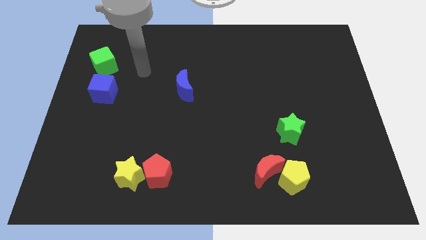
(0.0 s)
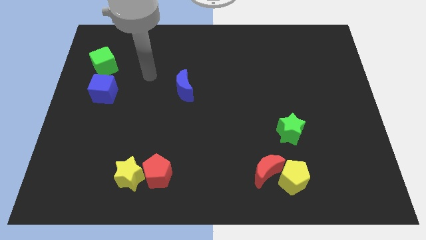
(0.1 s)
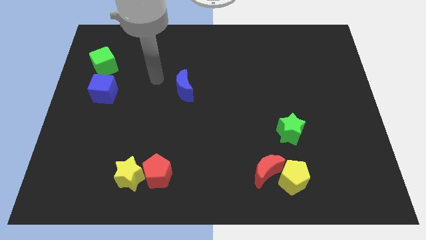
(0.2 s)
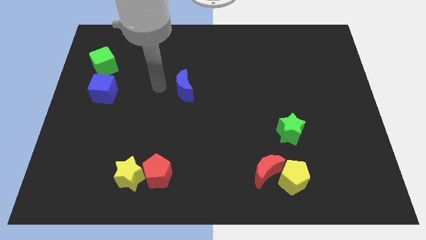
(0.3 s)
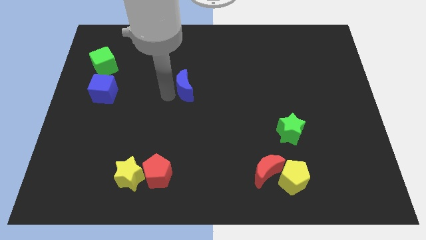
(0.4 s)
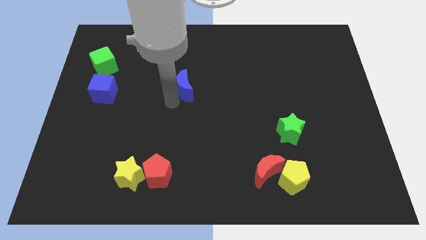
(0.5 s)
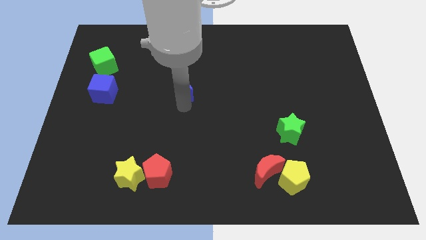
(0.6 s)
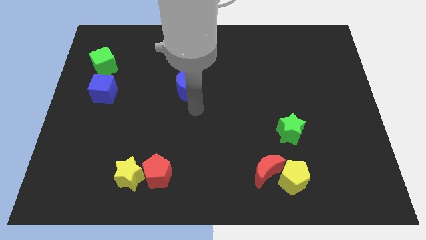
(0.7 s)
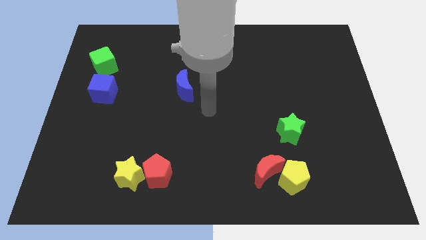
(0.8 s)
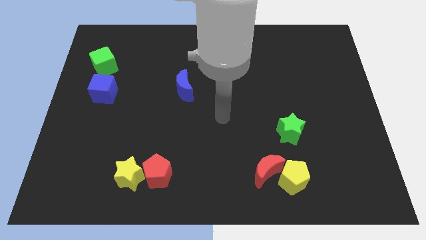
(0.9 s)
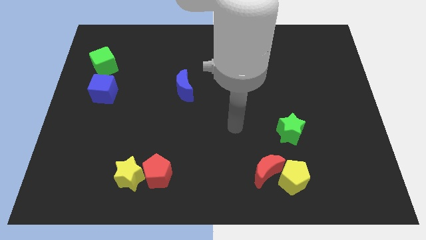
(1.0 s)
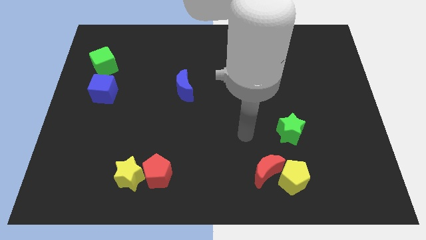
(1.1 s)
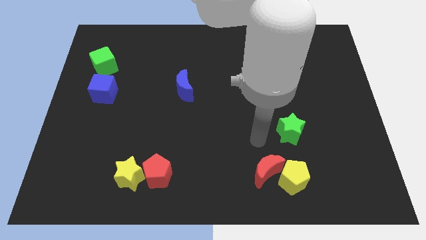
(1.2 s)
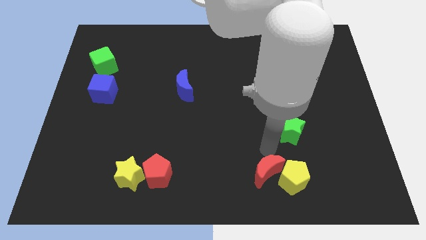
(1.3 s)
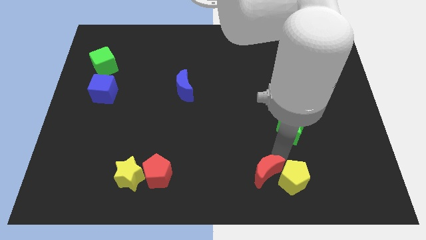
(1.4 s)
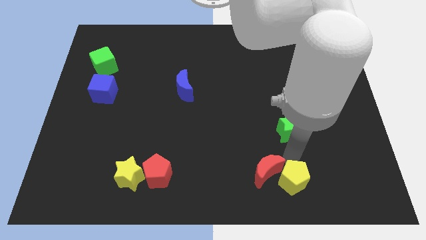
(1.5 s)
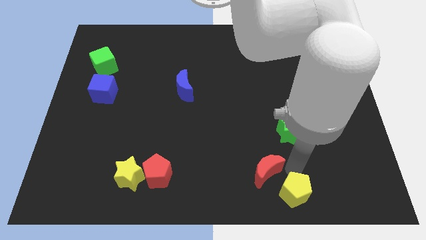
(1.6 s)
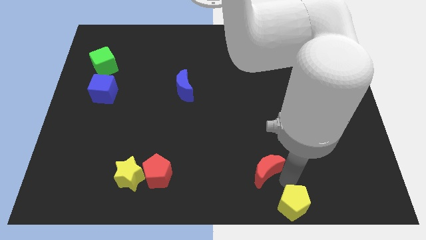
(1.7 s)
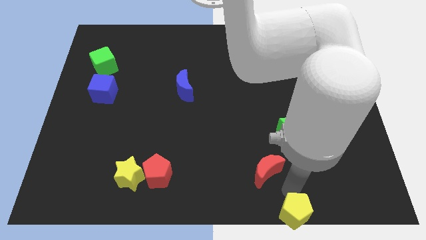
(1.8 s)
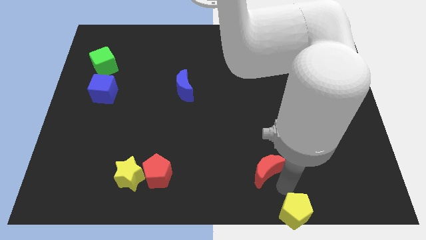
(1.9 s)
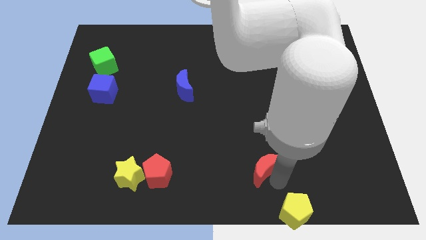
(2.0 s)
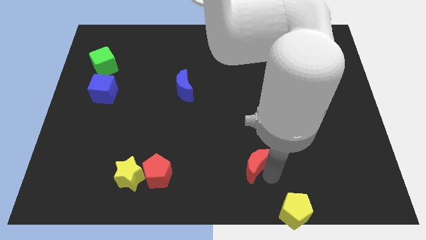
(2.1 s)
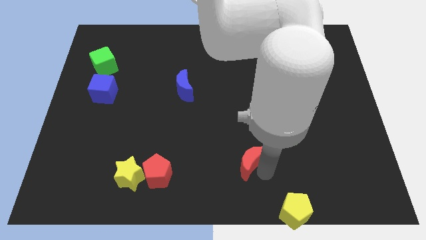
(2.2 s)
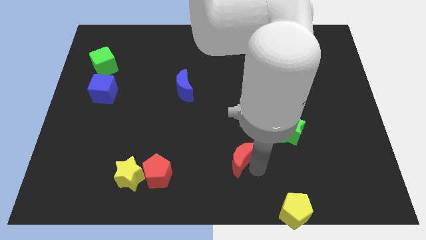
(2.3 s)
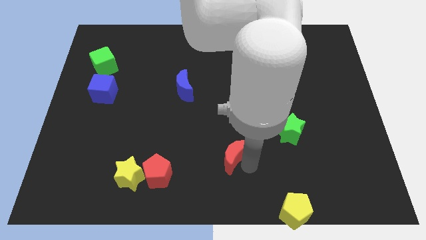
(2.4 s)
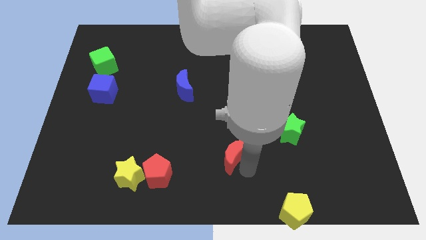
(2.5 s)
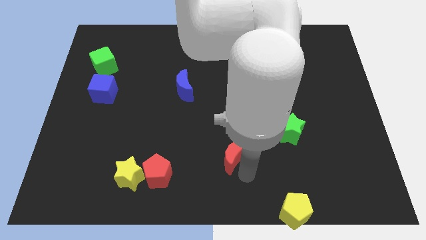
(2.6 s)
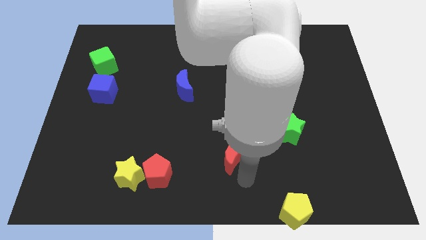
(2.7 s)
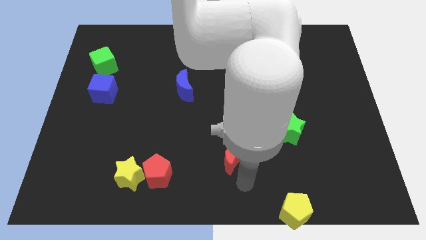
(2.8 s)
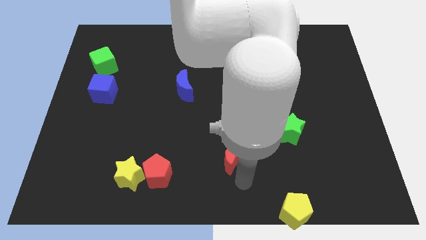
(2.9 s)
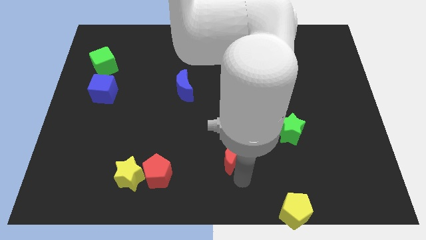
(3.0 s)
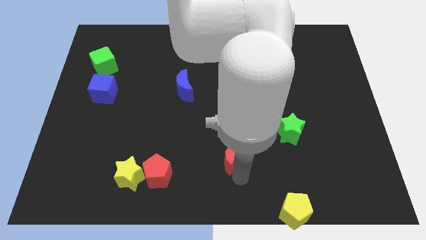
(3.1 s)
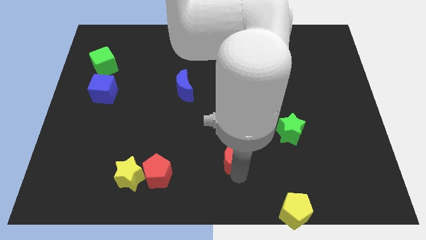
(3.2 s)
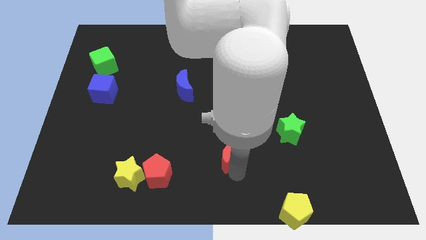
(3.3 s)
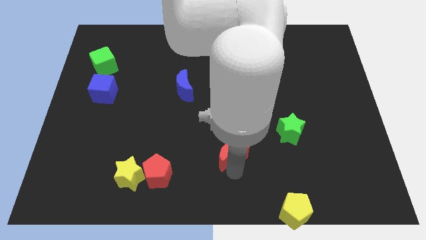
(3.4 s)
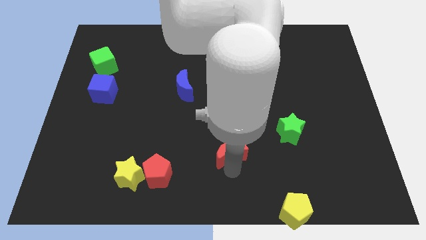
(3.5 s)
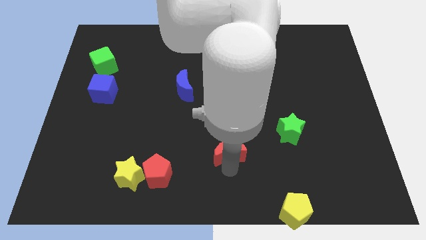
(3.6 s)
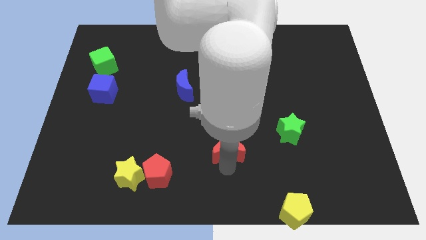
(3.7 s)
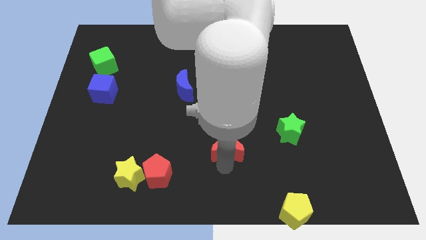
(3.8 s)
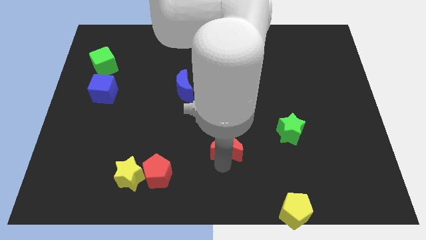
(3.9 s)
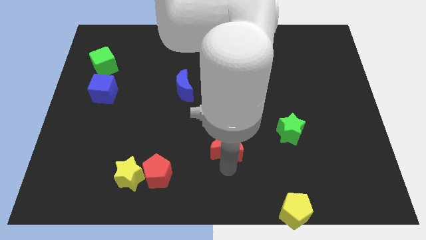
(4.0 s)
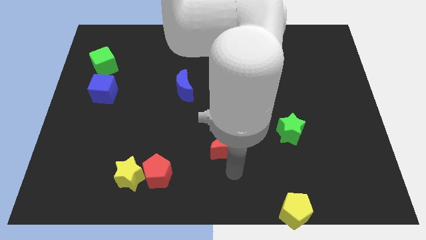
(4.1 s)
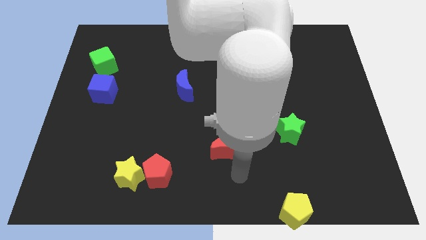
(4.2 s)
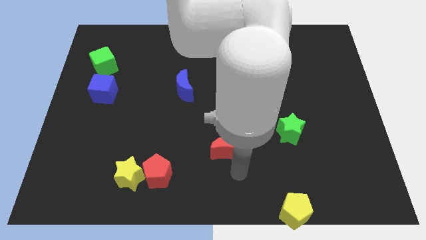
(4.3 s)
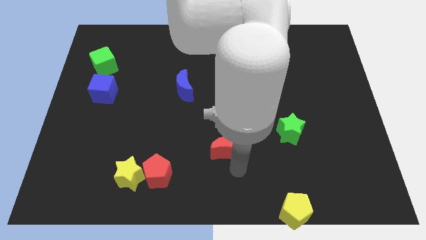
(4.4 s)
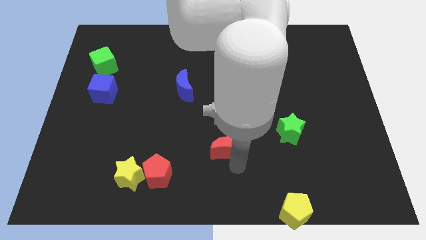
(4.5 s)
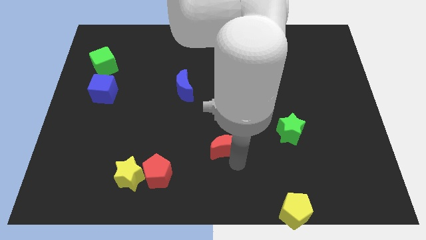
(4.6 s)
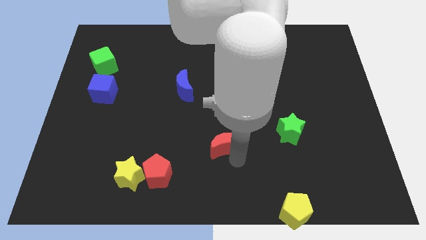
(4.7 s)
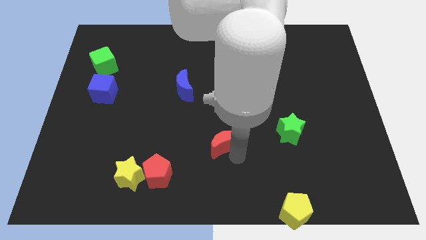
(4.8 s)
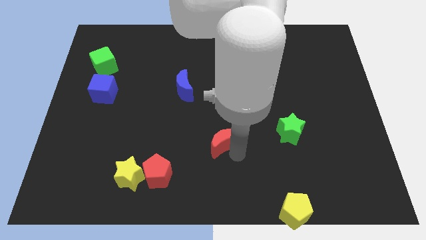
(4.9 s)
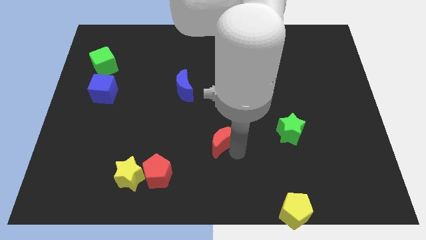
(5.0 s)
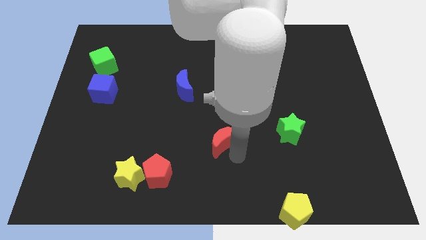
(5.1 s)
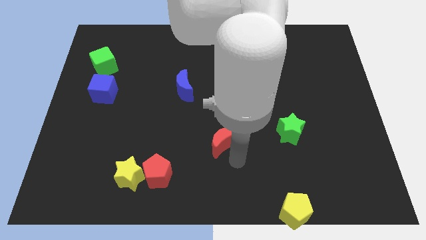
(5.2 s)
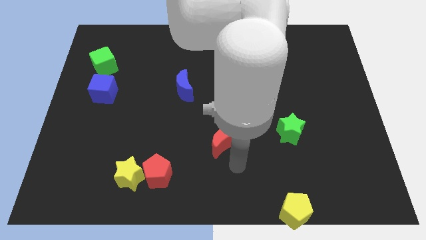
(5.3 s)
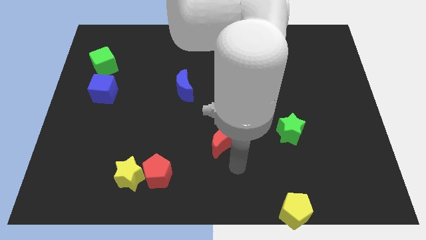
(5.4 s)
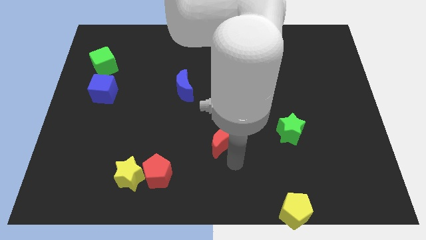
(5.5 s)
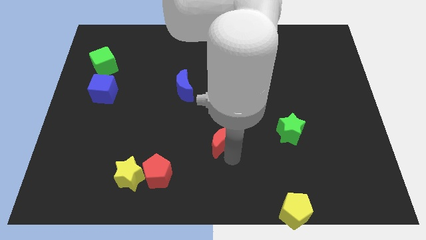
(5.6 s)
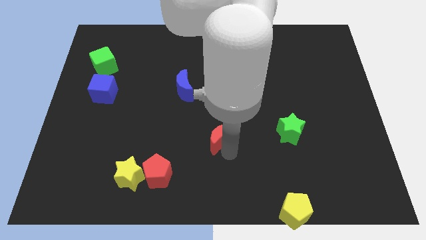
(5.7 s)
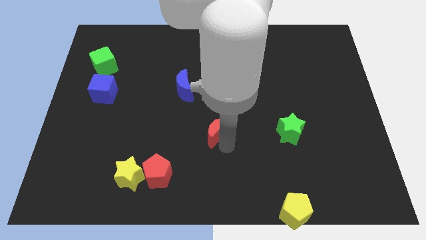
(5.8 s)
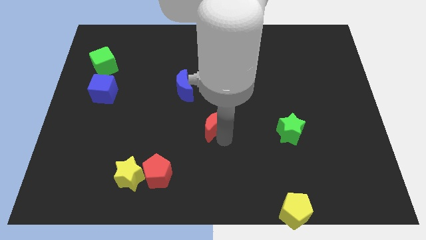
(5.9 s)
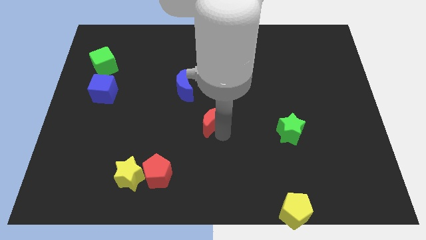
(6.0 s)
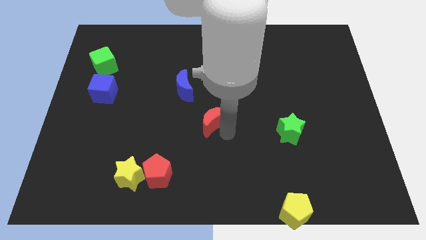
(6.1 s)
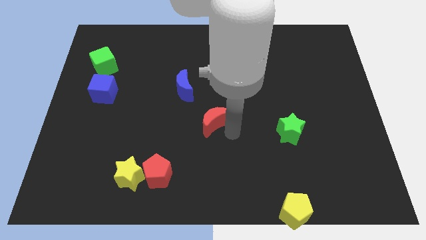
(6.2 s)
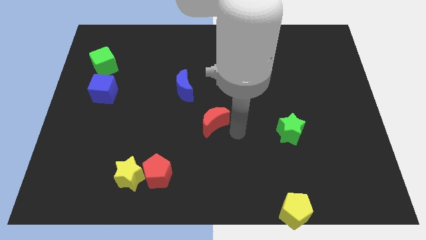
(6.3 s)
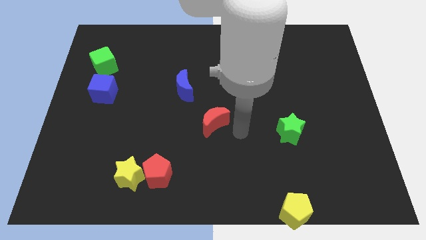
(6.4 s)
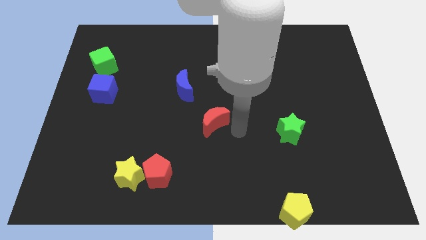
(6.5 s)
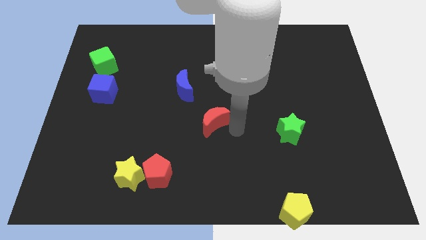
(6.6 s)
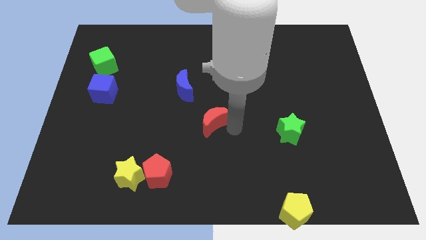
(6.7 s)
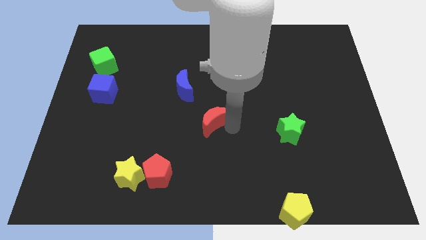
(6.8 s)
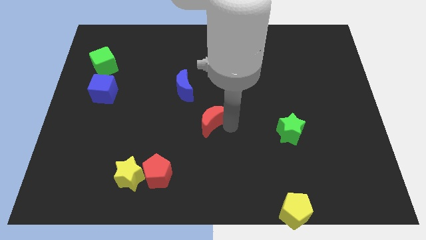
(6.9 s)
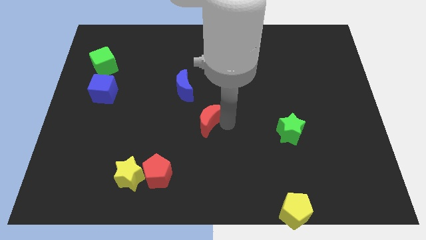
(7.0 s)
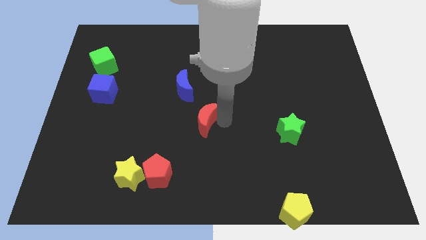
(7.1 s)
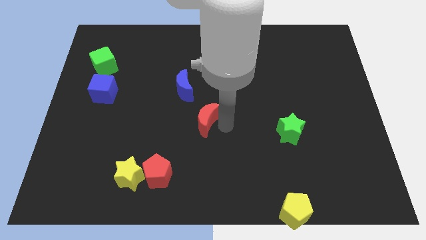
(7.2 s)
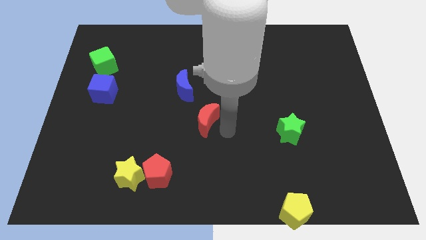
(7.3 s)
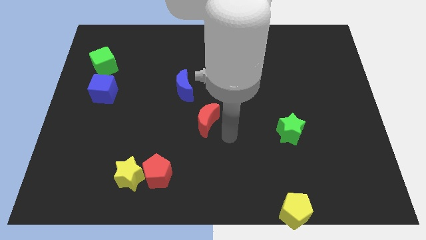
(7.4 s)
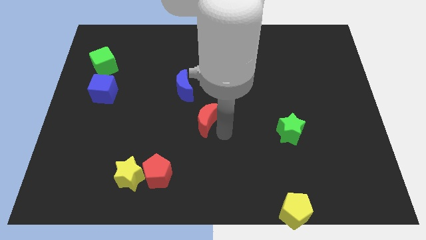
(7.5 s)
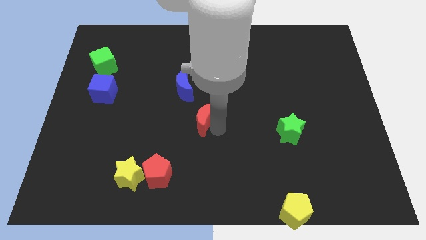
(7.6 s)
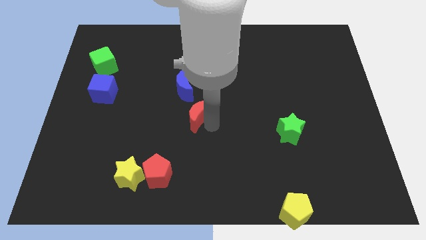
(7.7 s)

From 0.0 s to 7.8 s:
move the red moon upwards and then left

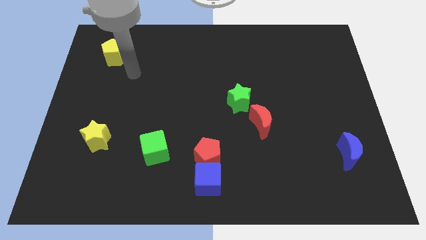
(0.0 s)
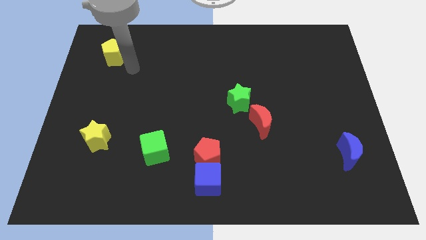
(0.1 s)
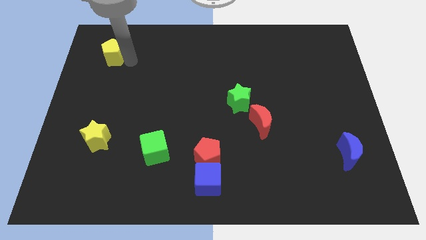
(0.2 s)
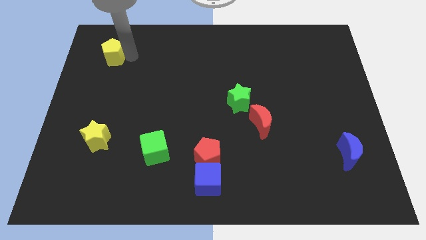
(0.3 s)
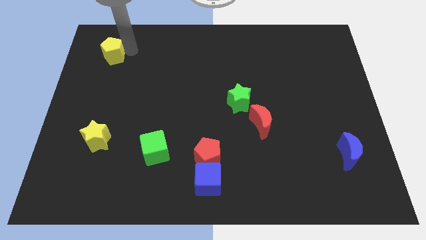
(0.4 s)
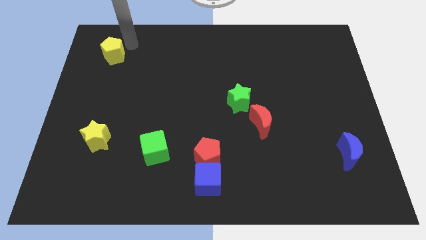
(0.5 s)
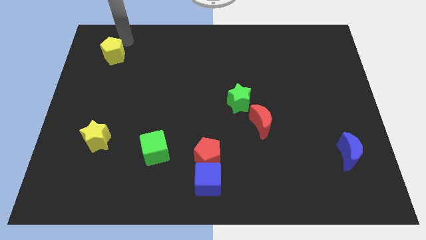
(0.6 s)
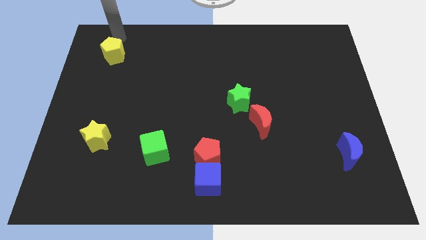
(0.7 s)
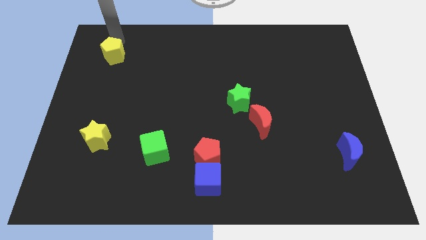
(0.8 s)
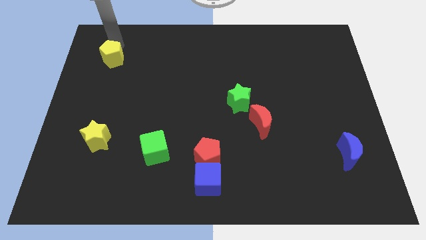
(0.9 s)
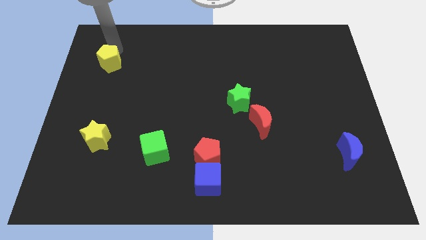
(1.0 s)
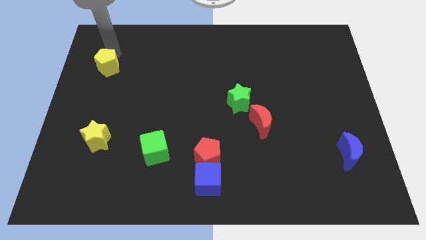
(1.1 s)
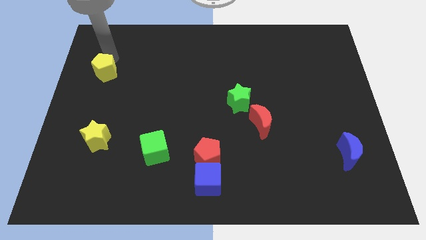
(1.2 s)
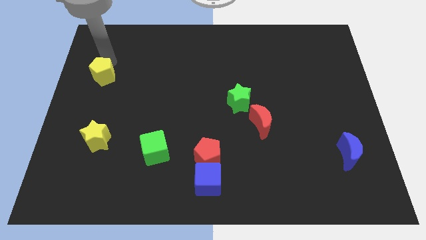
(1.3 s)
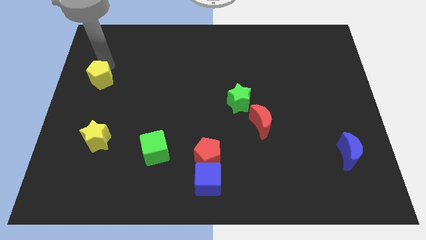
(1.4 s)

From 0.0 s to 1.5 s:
slightly push the yellow pentagon down
